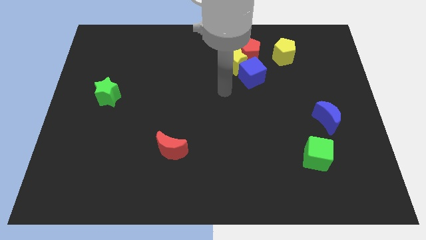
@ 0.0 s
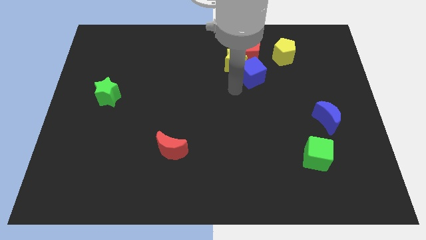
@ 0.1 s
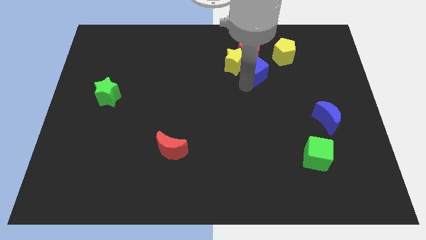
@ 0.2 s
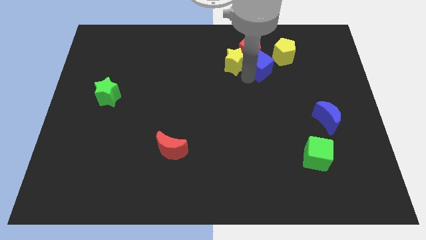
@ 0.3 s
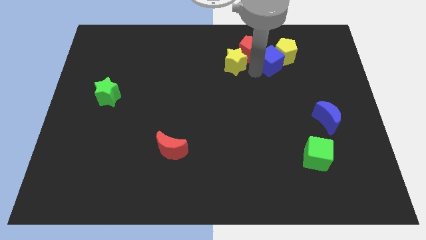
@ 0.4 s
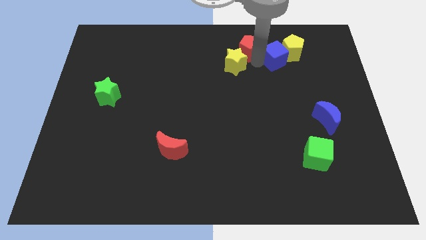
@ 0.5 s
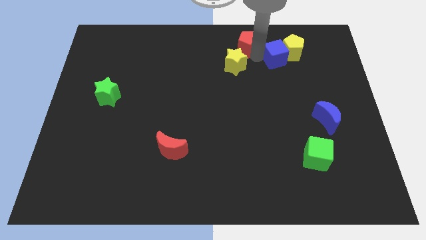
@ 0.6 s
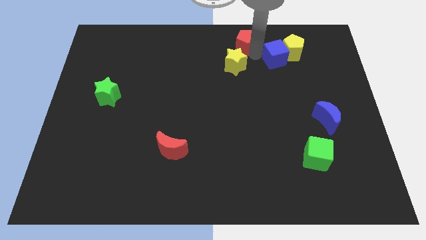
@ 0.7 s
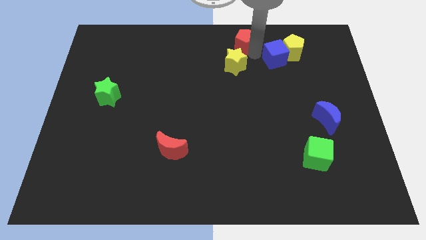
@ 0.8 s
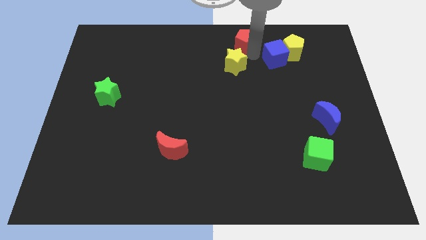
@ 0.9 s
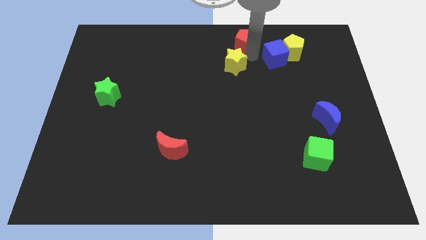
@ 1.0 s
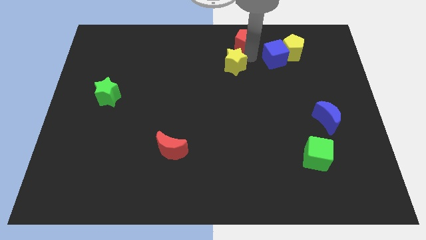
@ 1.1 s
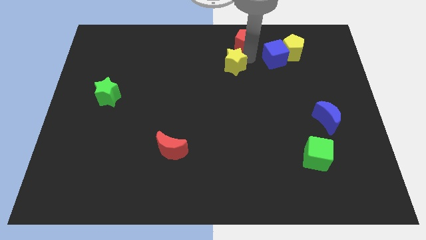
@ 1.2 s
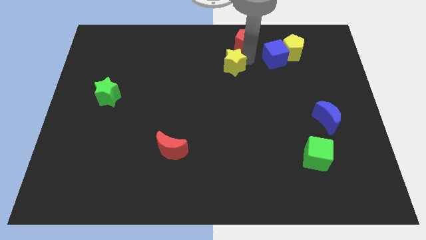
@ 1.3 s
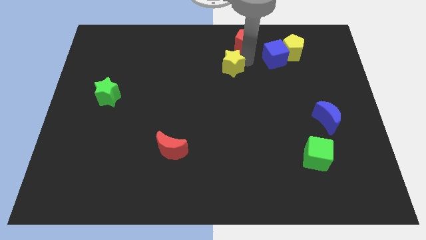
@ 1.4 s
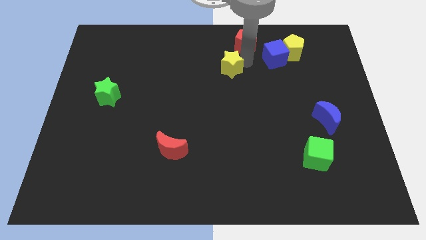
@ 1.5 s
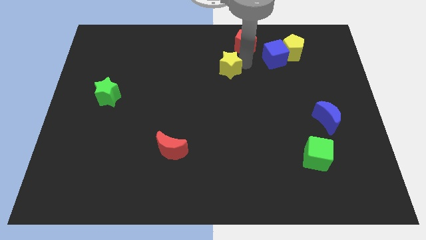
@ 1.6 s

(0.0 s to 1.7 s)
pull the yellow star apart from the red pentagon and blue cube

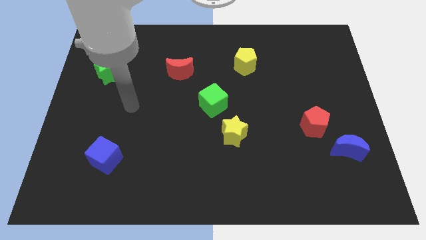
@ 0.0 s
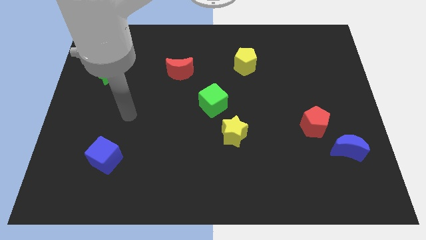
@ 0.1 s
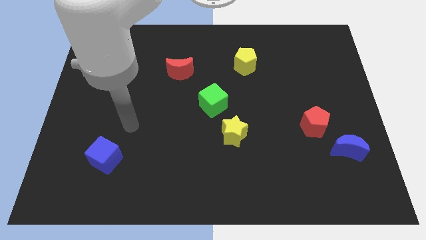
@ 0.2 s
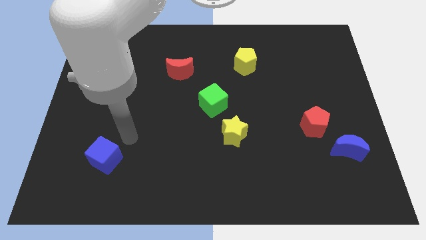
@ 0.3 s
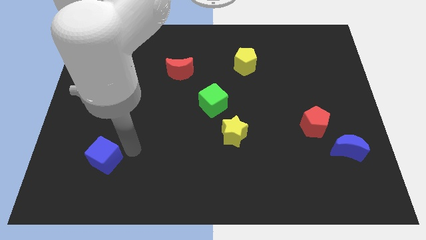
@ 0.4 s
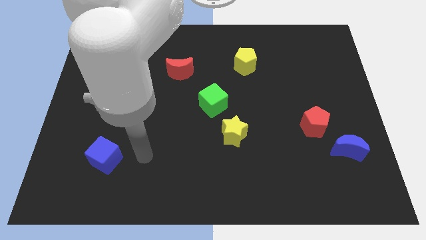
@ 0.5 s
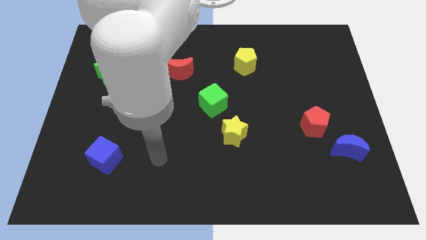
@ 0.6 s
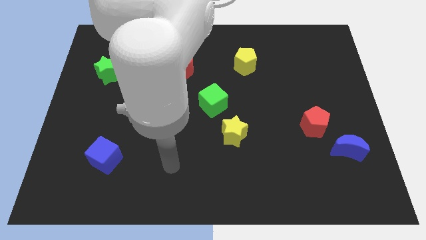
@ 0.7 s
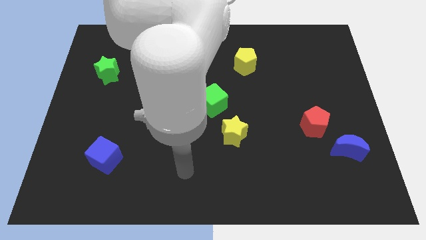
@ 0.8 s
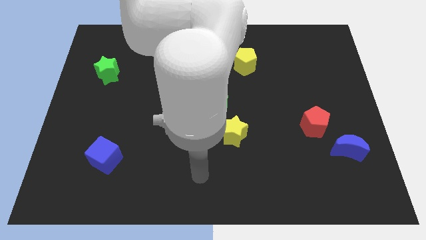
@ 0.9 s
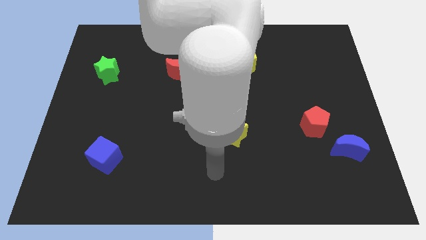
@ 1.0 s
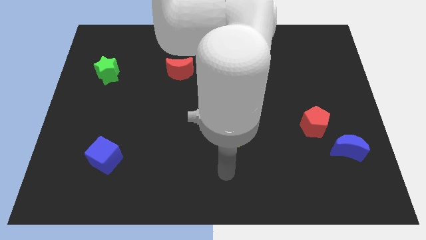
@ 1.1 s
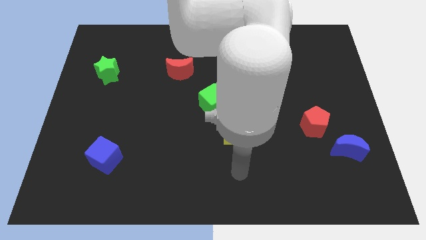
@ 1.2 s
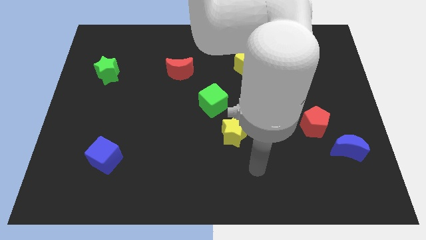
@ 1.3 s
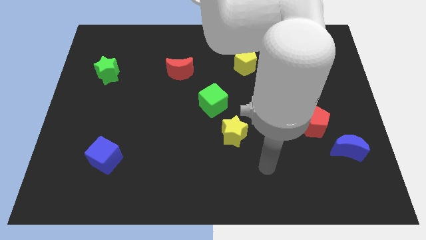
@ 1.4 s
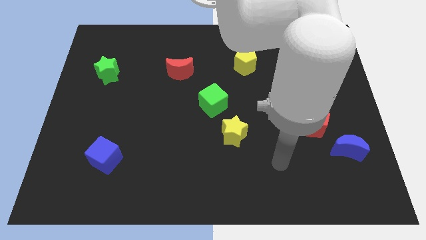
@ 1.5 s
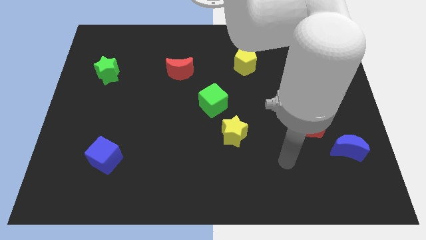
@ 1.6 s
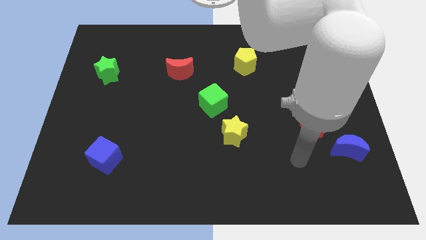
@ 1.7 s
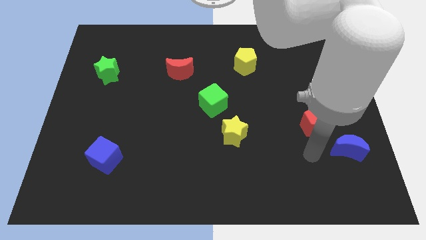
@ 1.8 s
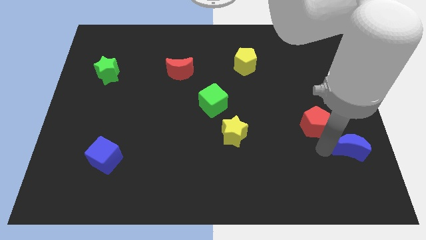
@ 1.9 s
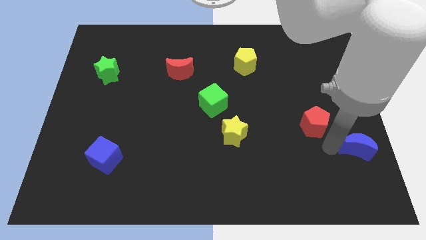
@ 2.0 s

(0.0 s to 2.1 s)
pull the red pentagon apart from the blue moon

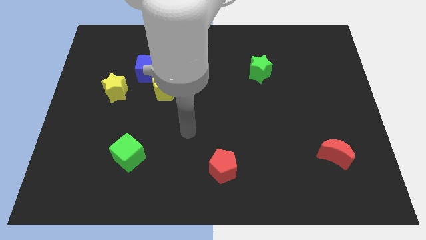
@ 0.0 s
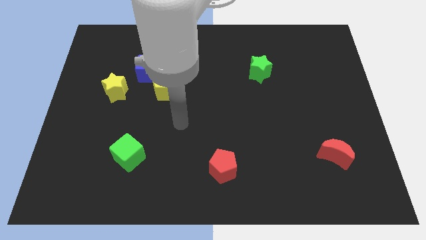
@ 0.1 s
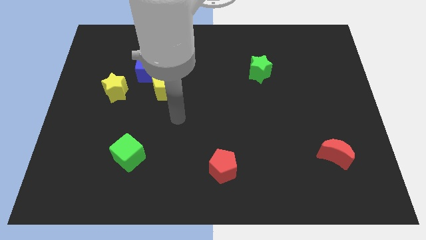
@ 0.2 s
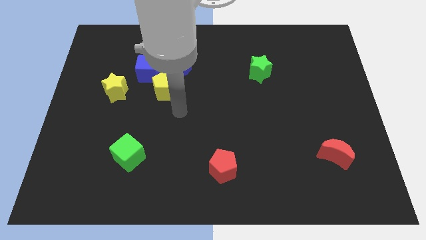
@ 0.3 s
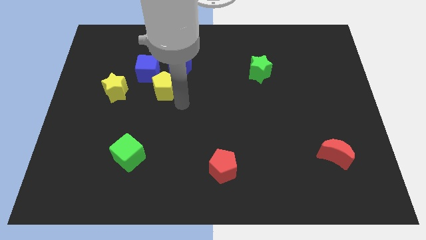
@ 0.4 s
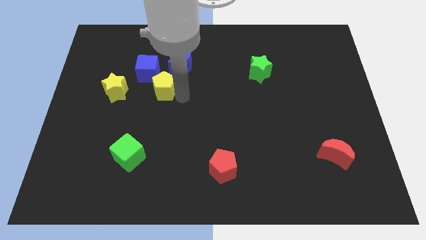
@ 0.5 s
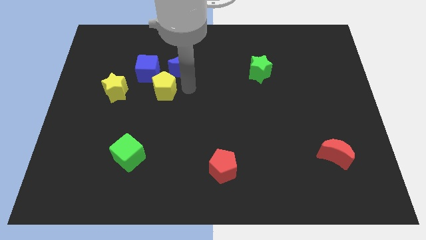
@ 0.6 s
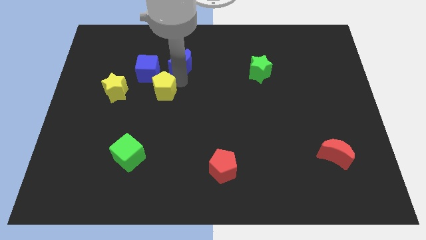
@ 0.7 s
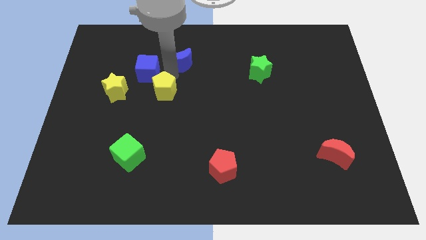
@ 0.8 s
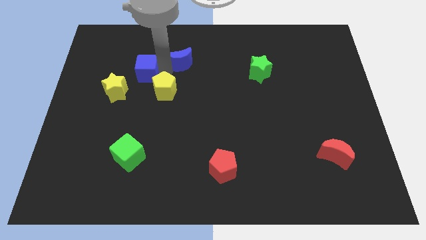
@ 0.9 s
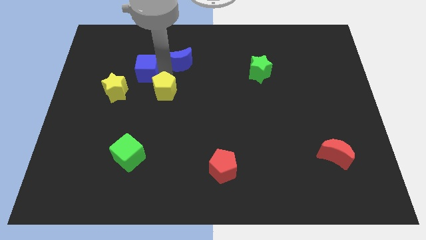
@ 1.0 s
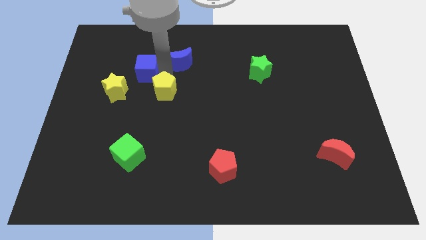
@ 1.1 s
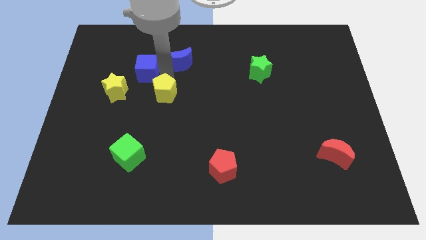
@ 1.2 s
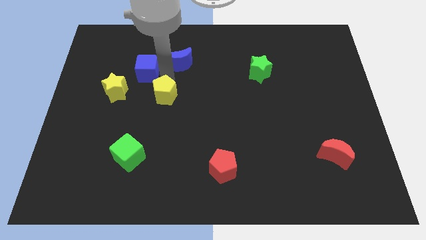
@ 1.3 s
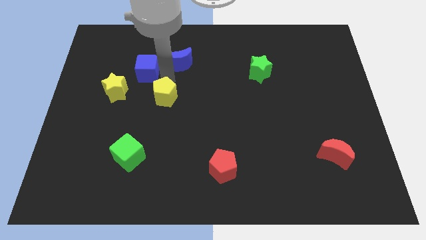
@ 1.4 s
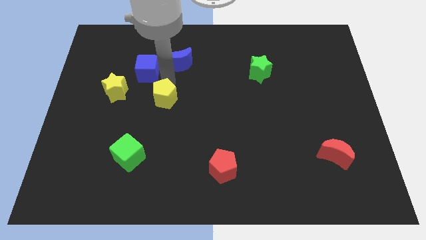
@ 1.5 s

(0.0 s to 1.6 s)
separate the yellow pentagon from the blue cube and blue moon

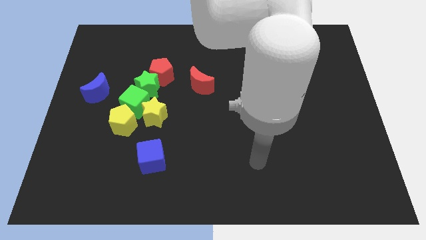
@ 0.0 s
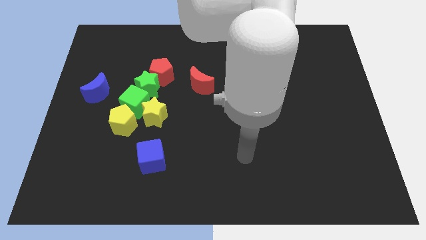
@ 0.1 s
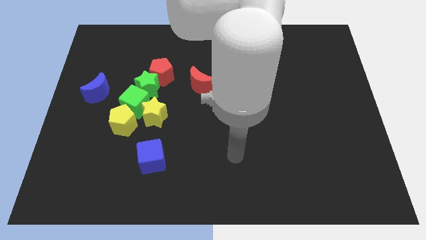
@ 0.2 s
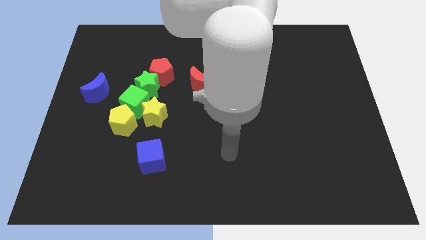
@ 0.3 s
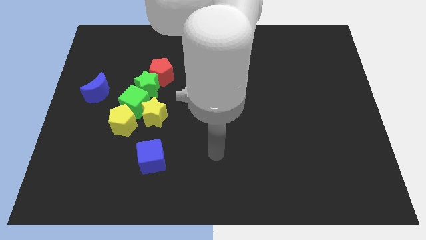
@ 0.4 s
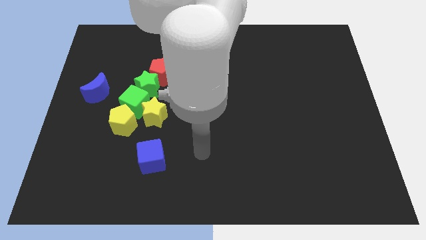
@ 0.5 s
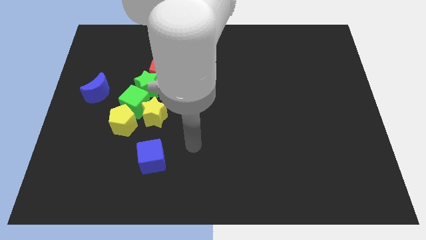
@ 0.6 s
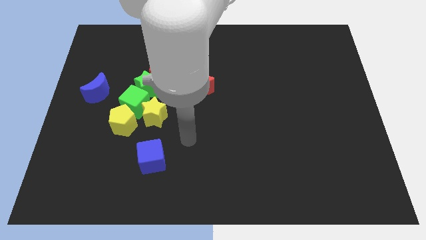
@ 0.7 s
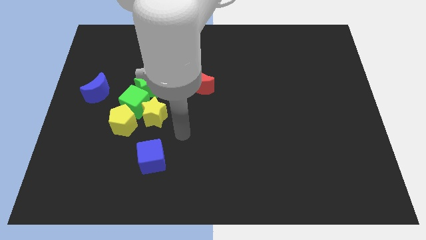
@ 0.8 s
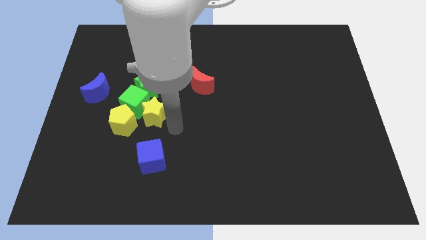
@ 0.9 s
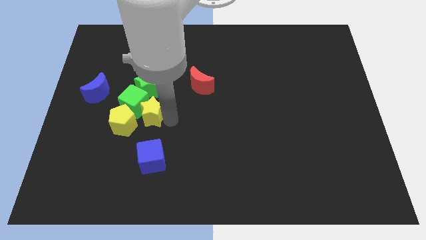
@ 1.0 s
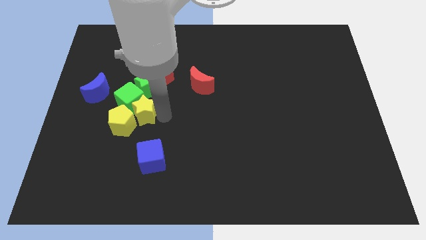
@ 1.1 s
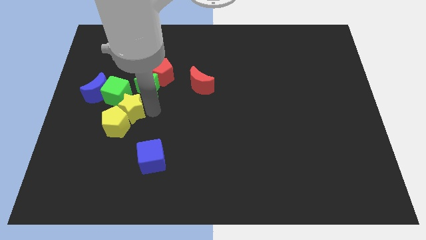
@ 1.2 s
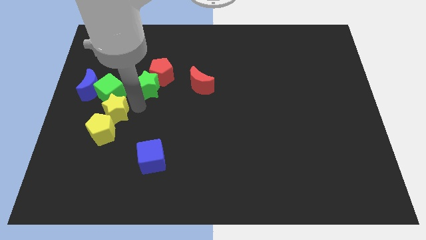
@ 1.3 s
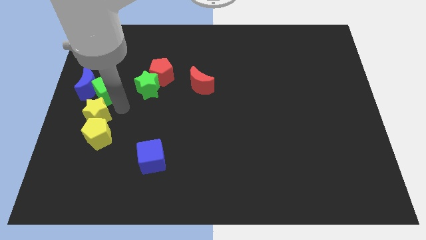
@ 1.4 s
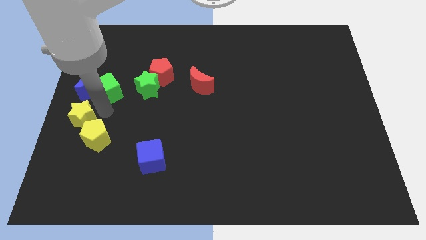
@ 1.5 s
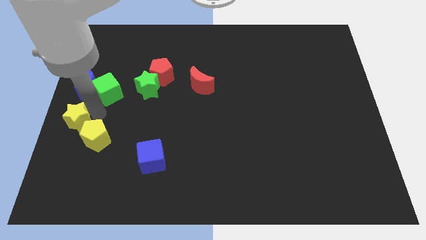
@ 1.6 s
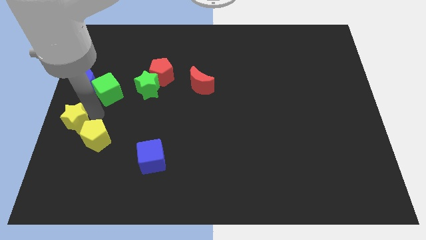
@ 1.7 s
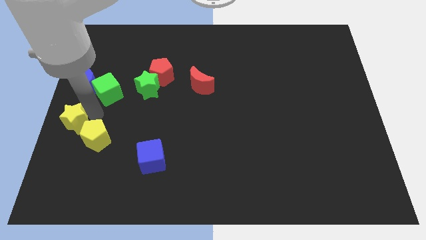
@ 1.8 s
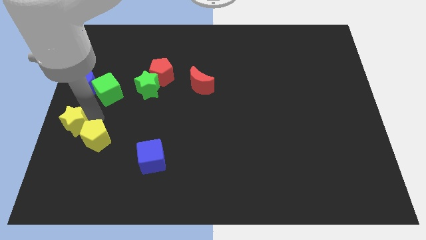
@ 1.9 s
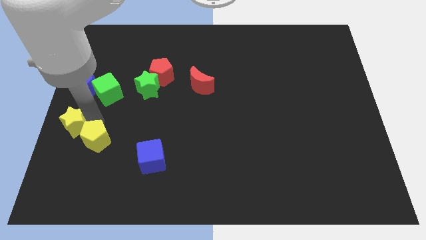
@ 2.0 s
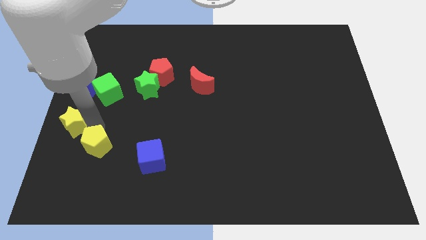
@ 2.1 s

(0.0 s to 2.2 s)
separate the yellow pentagon from the green cube and yellow star

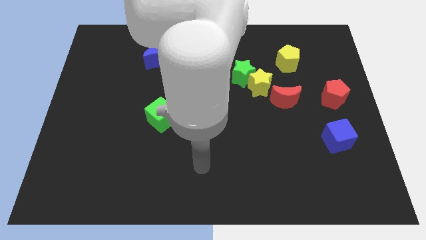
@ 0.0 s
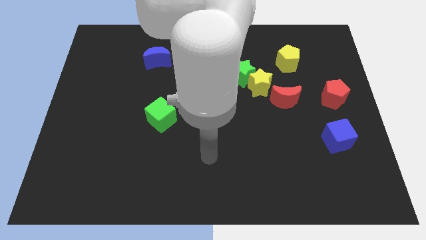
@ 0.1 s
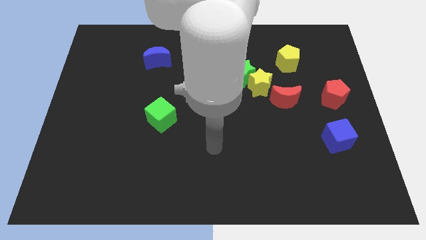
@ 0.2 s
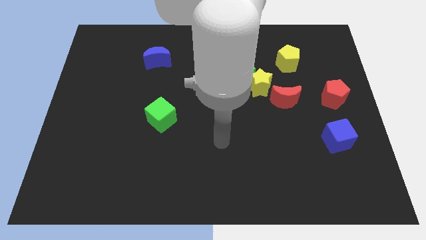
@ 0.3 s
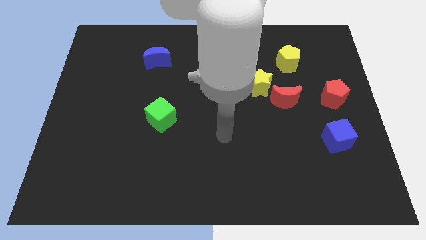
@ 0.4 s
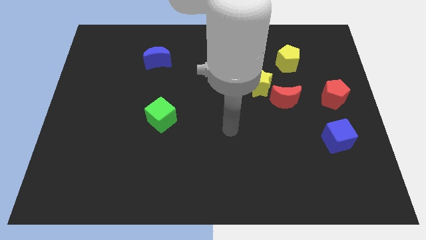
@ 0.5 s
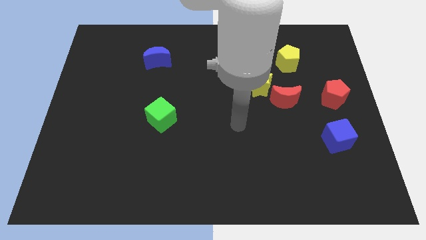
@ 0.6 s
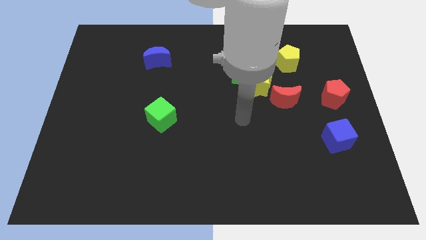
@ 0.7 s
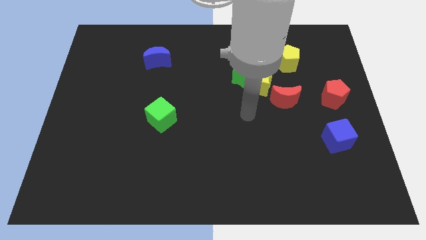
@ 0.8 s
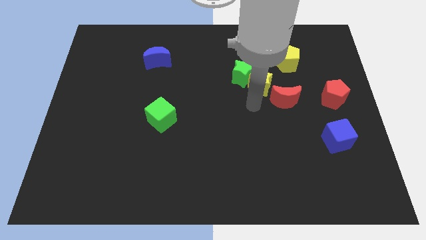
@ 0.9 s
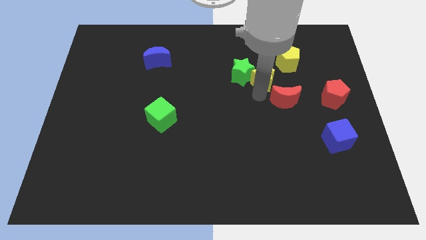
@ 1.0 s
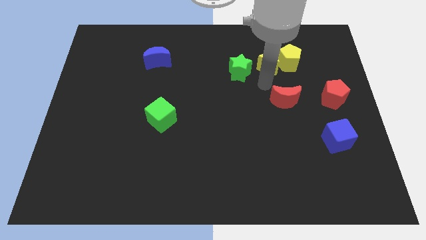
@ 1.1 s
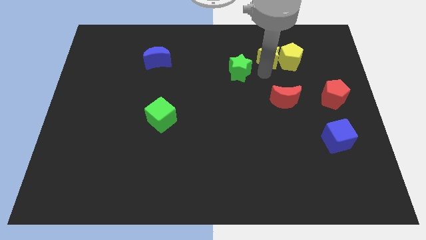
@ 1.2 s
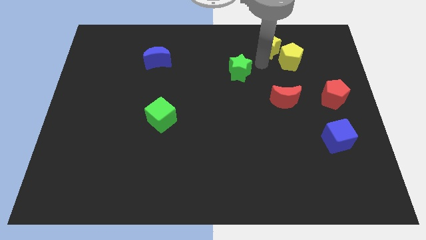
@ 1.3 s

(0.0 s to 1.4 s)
pull the green star apart from the yellow star

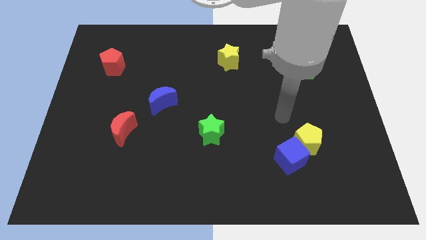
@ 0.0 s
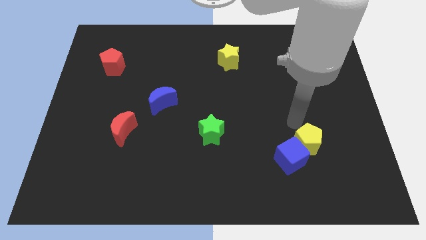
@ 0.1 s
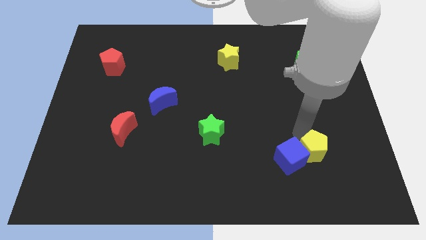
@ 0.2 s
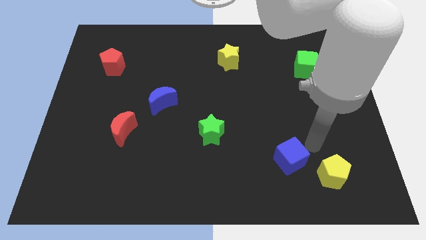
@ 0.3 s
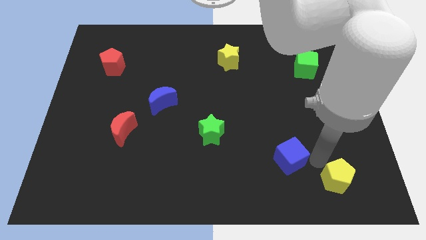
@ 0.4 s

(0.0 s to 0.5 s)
move the blue cube away from the yellow pentagon
